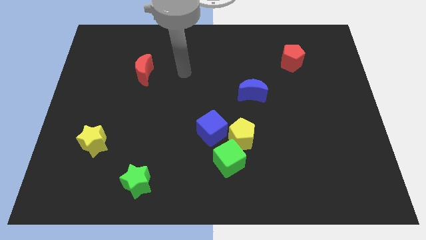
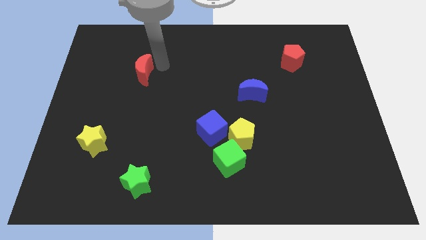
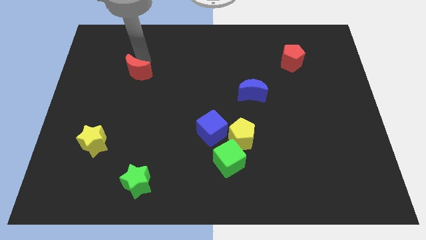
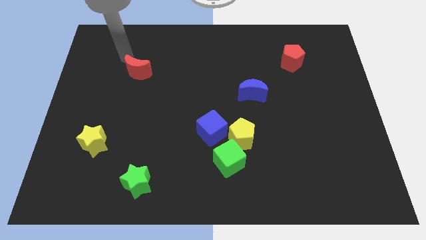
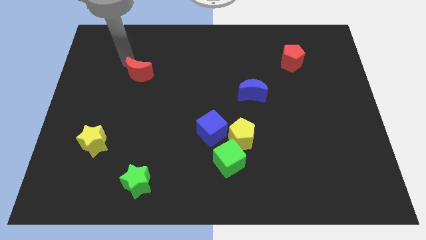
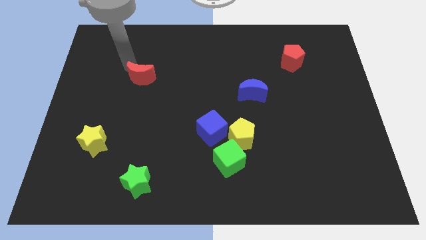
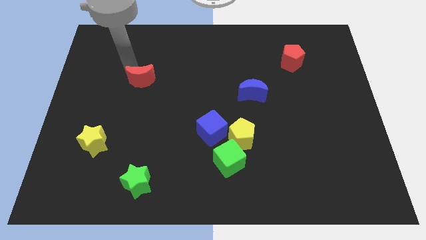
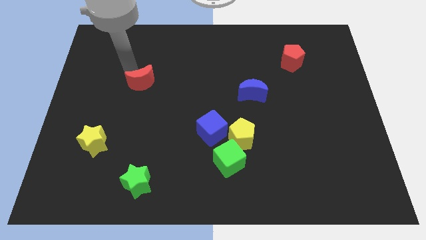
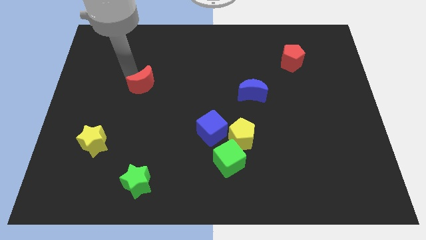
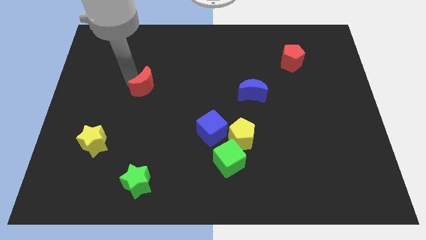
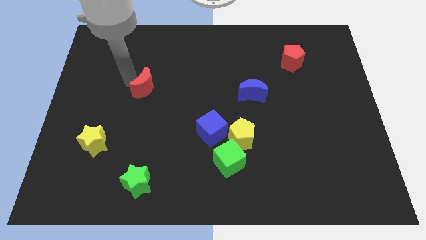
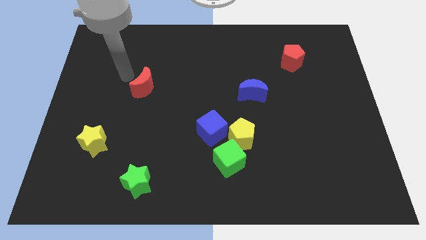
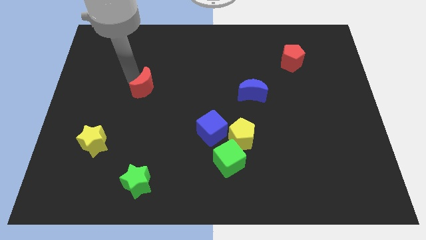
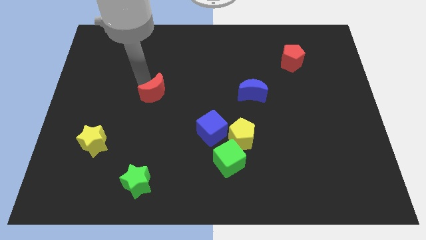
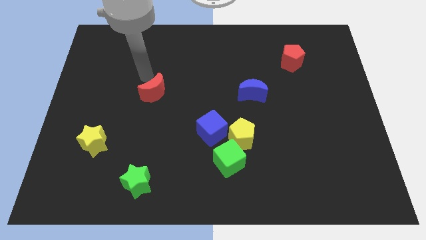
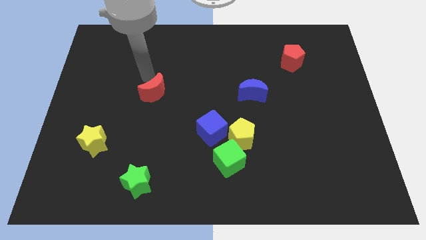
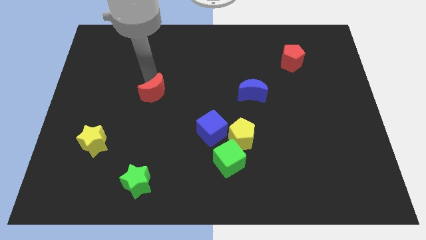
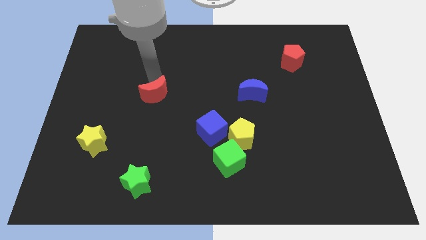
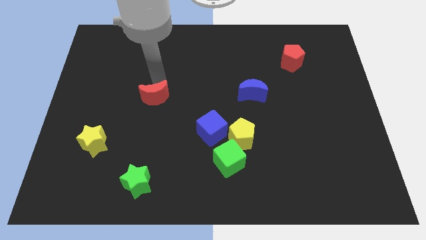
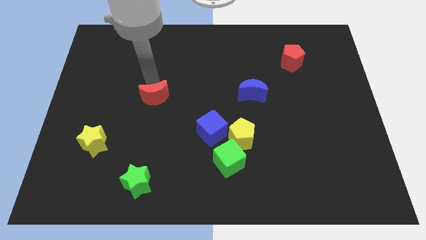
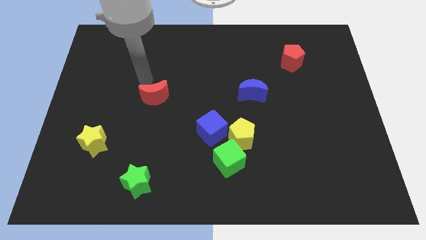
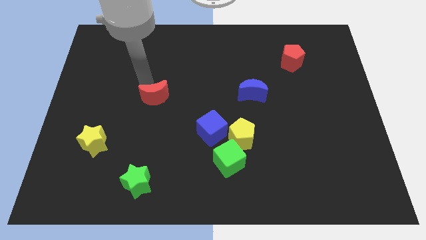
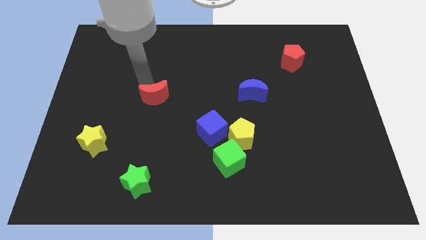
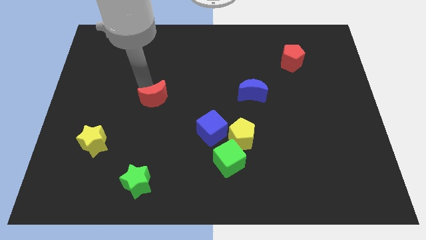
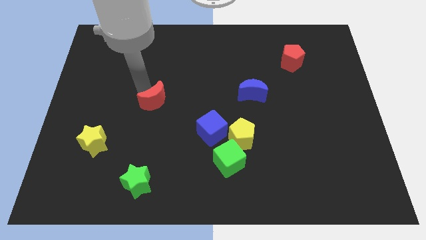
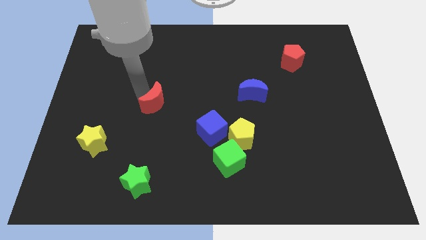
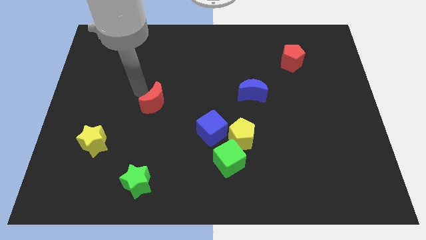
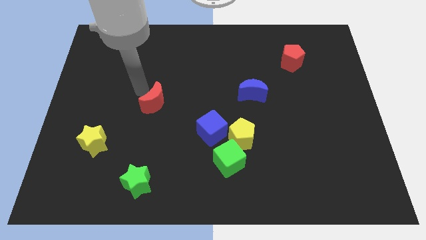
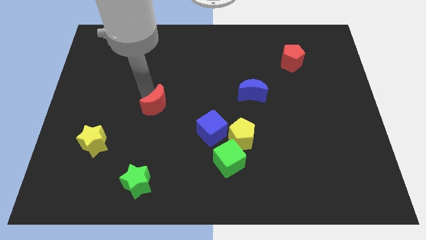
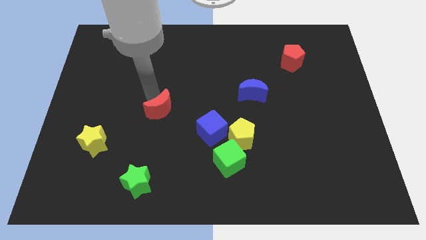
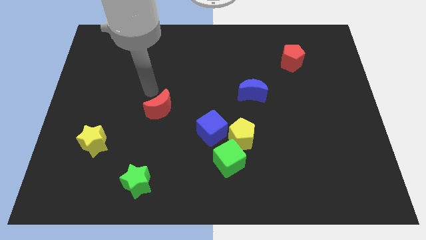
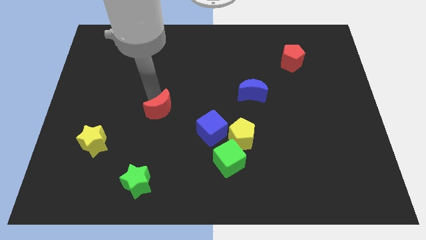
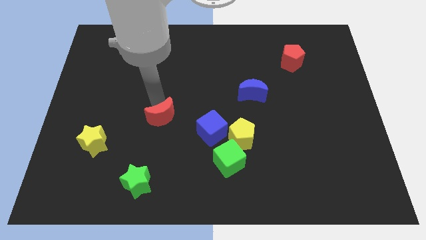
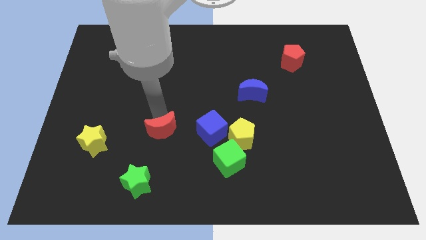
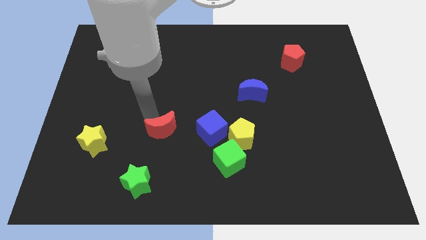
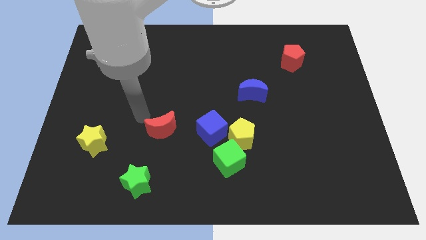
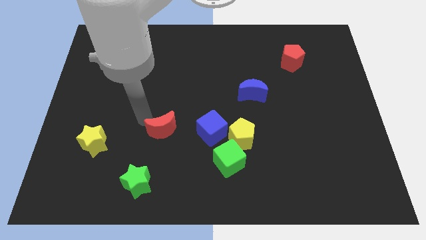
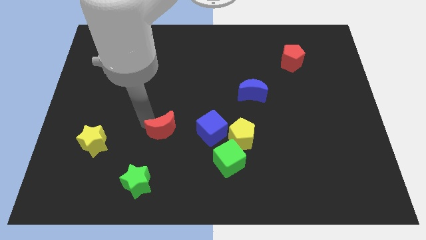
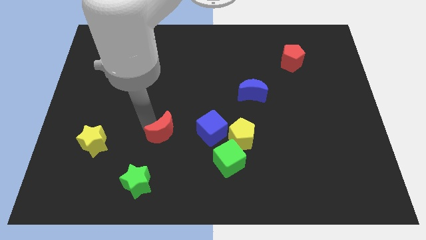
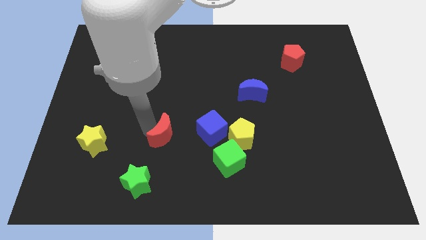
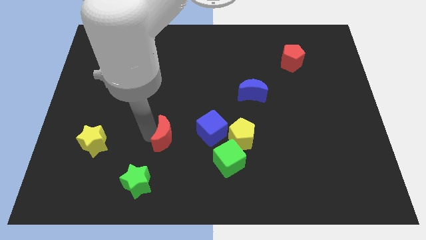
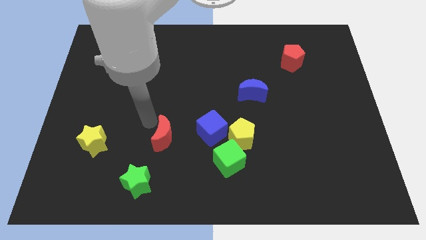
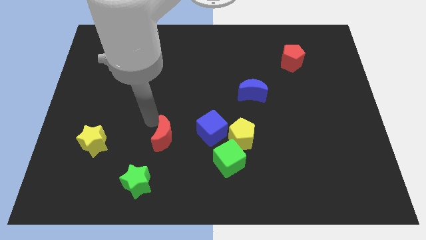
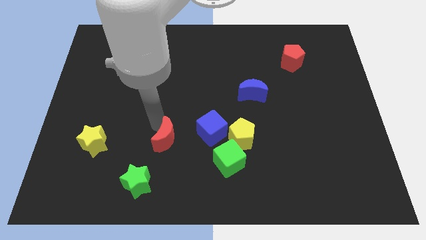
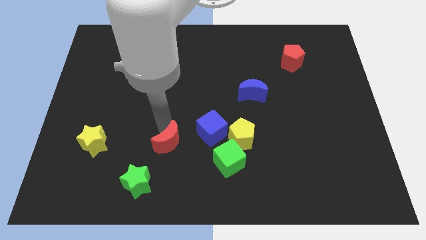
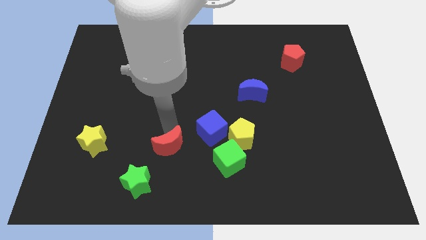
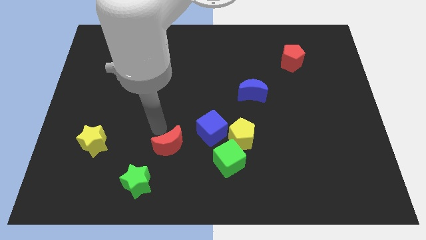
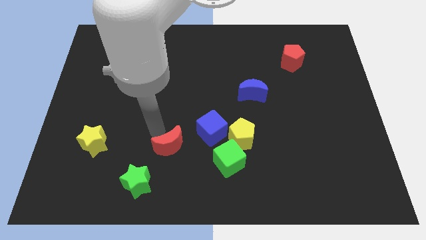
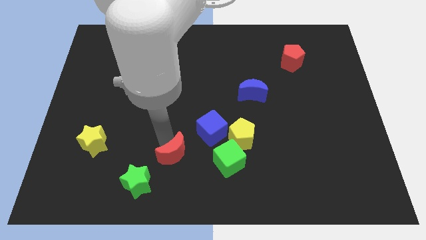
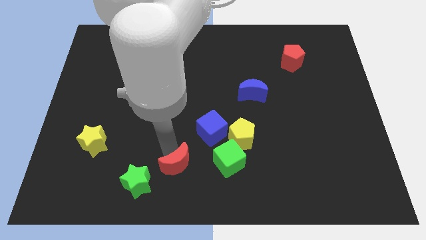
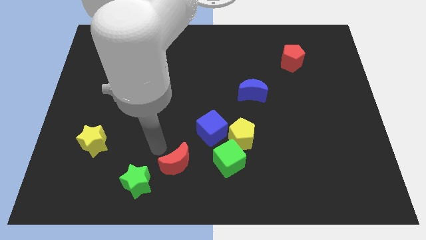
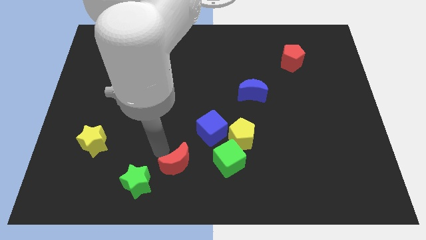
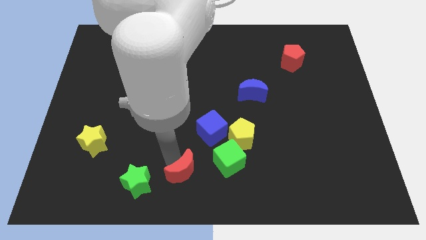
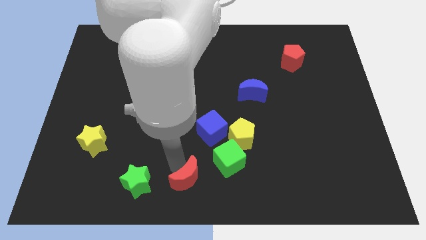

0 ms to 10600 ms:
put the red moon to the bottom left of the green cube

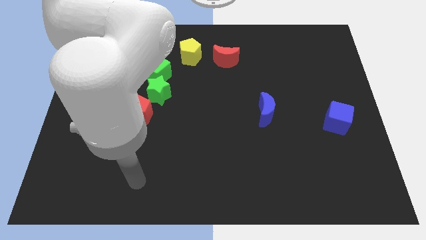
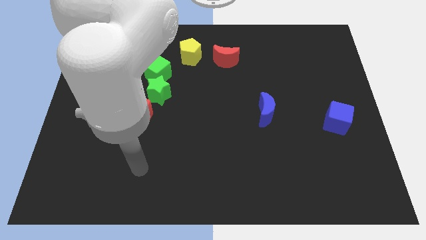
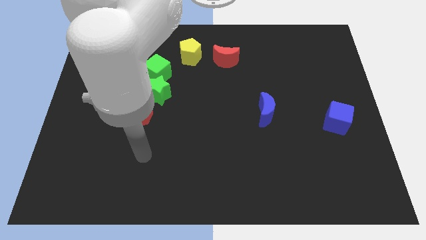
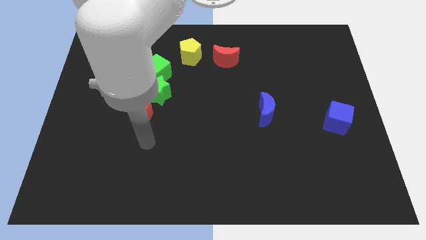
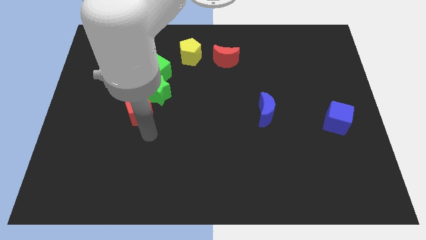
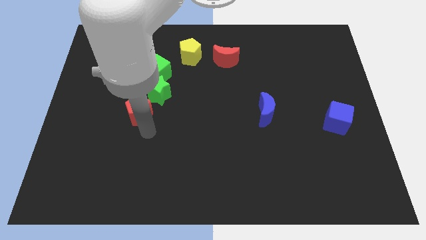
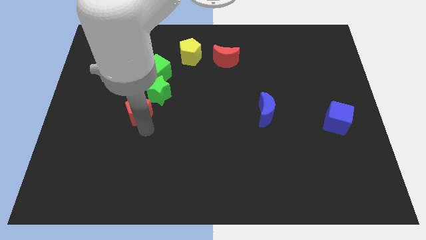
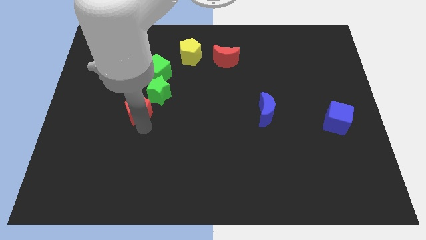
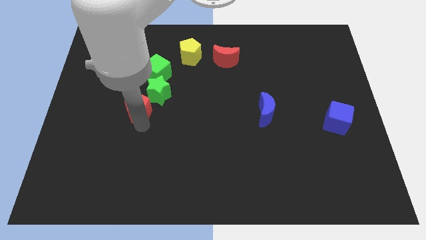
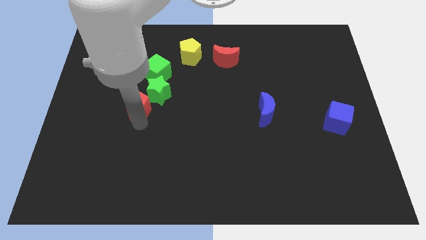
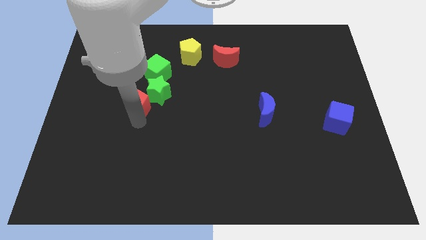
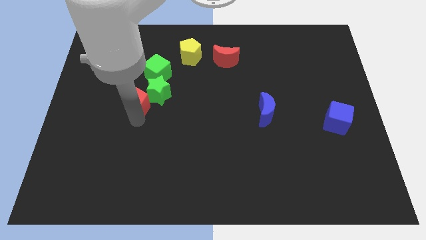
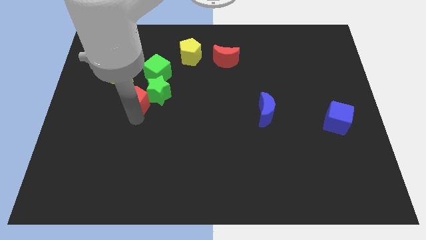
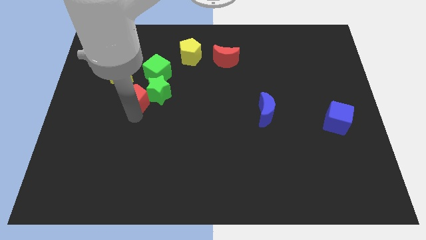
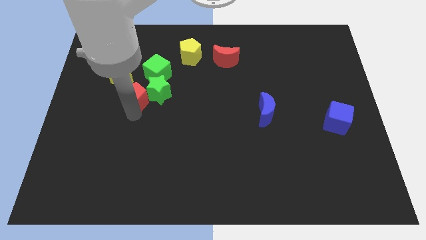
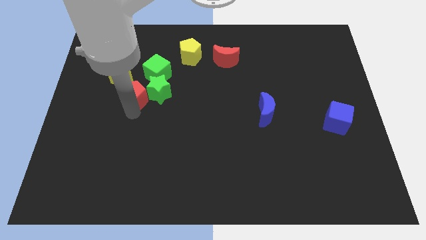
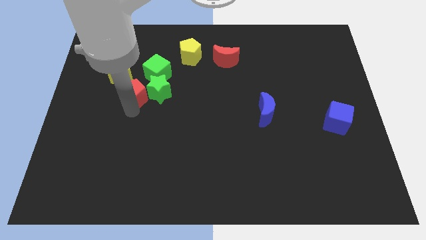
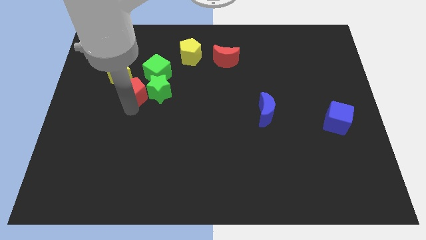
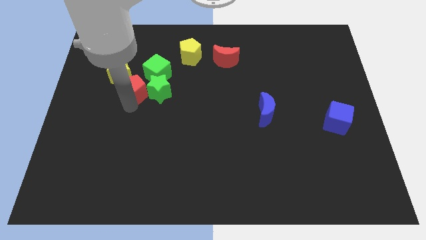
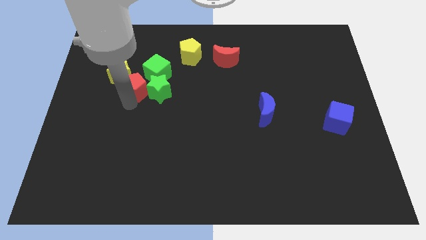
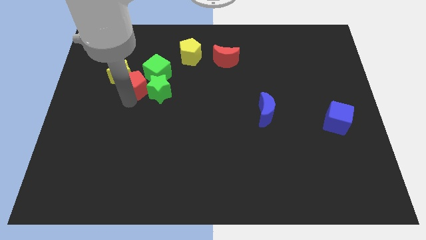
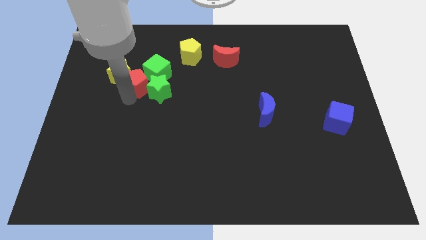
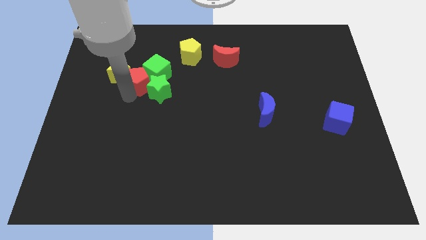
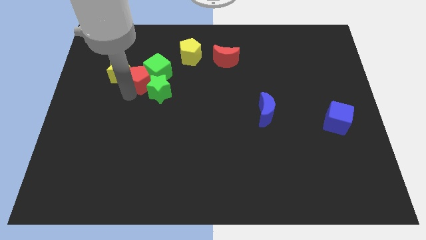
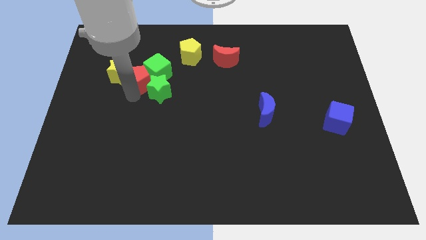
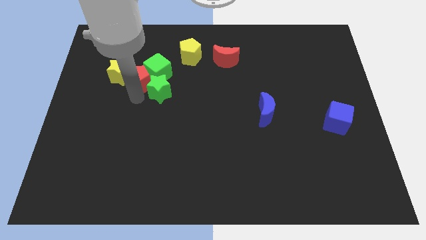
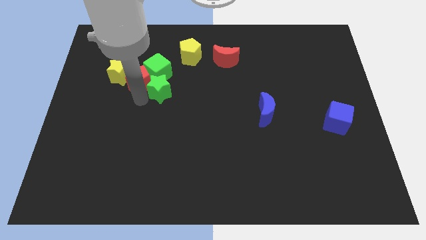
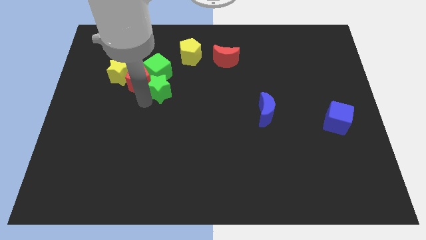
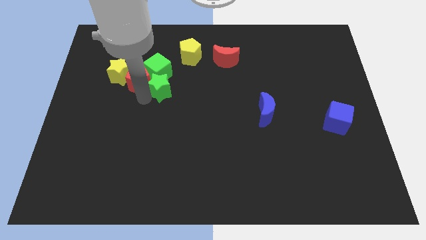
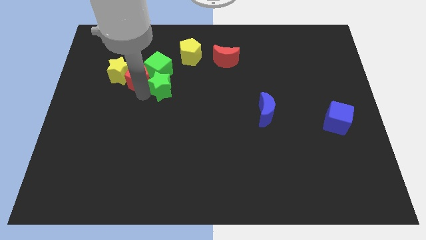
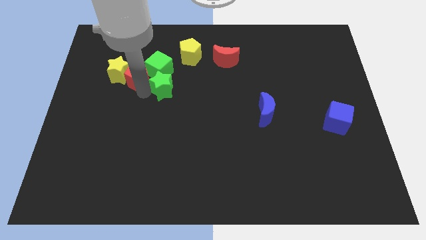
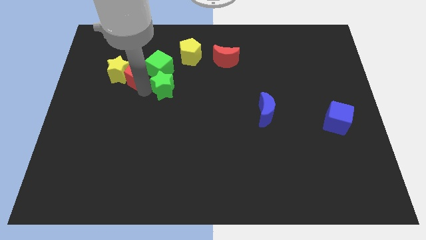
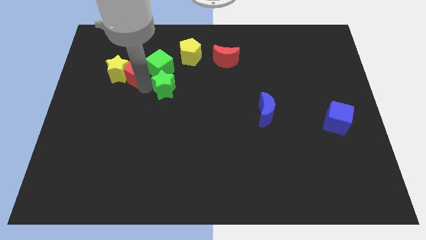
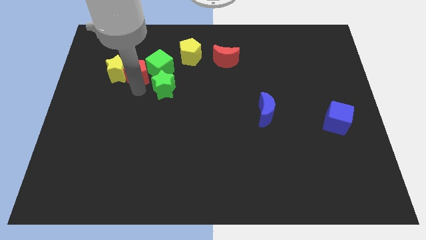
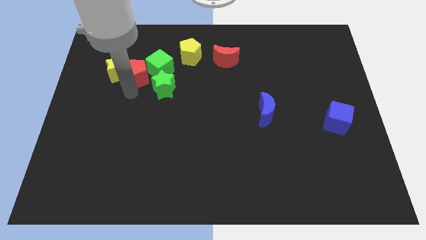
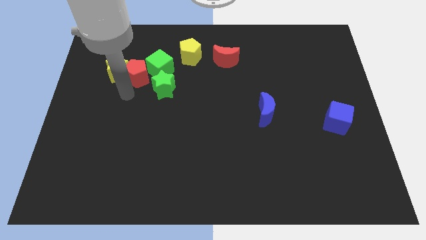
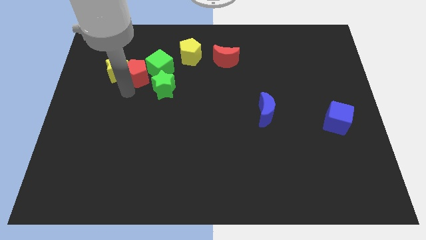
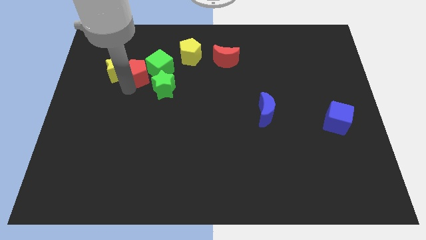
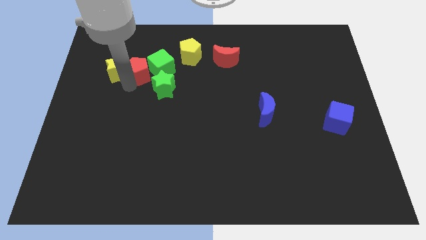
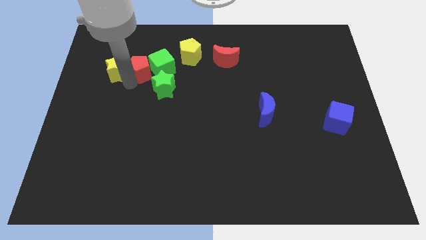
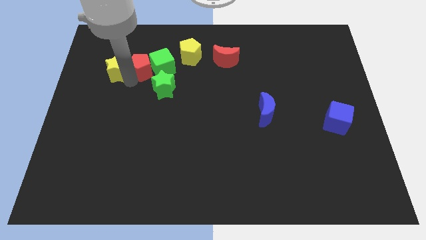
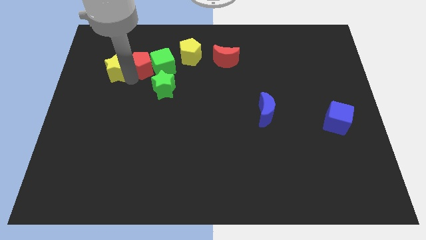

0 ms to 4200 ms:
slide the red pentagon to the left side of the yellow pentagon
